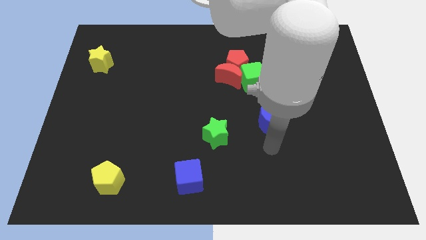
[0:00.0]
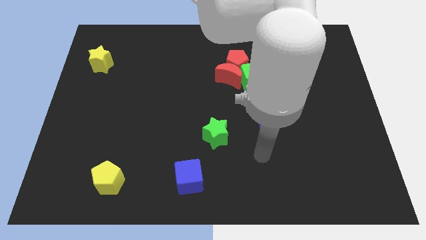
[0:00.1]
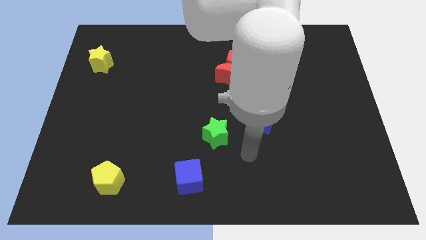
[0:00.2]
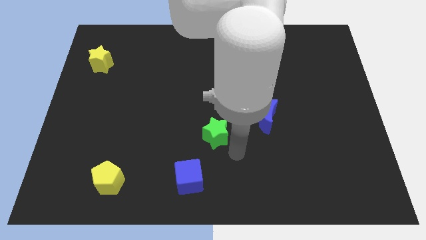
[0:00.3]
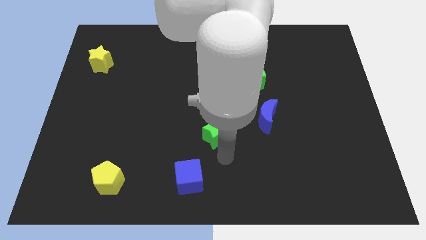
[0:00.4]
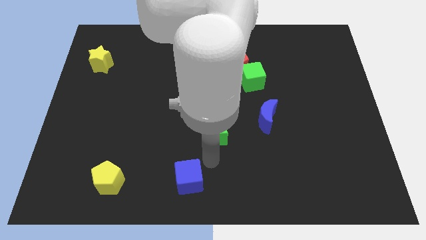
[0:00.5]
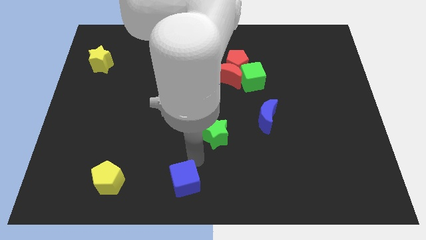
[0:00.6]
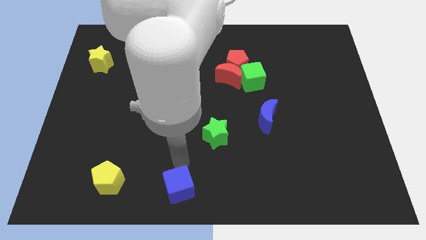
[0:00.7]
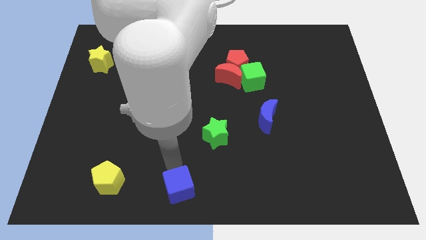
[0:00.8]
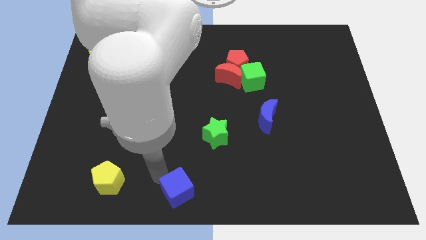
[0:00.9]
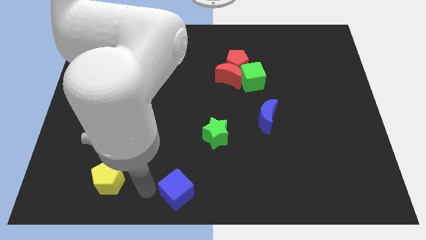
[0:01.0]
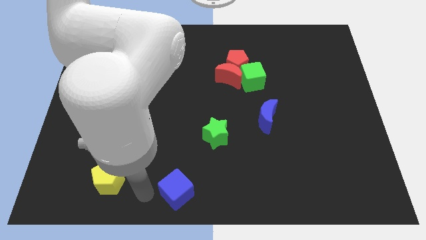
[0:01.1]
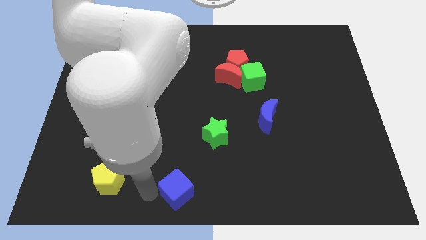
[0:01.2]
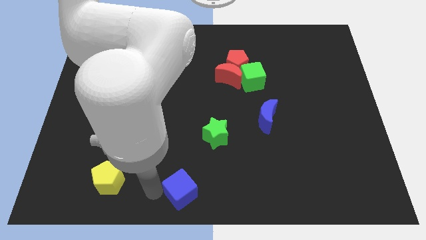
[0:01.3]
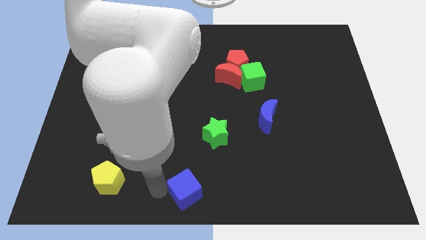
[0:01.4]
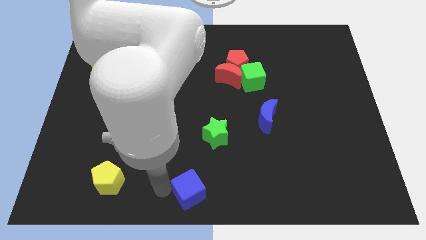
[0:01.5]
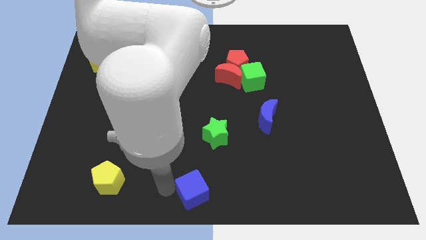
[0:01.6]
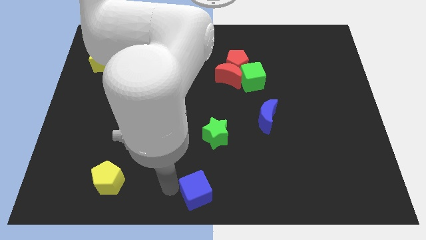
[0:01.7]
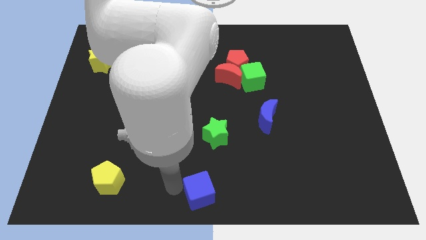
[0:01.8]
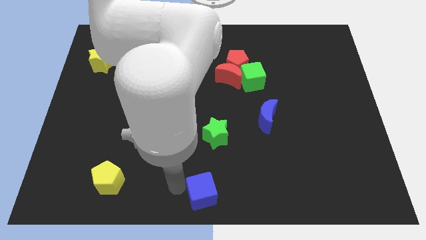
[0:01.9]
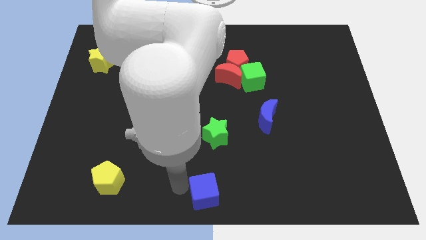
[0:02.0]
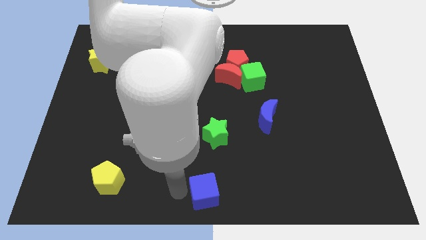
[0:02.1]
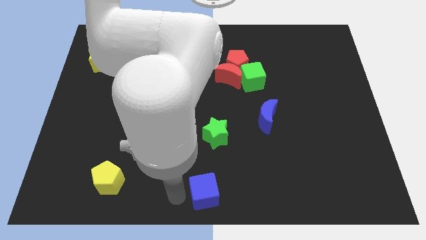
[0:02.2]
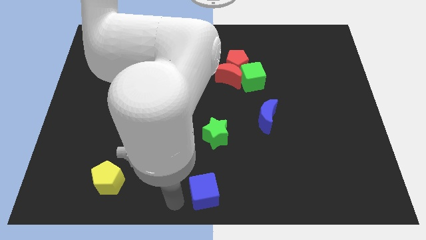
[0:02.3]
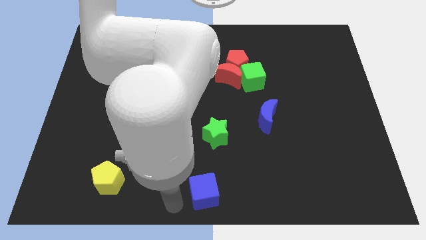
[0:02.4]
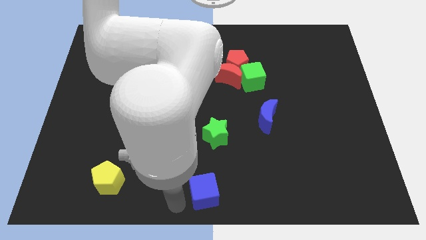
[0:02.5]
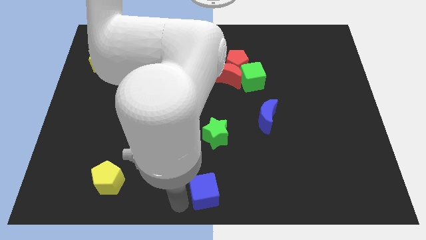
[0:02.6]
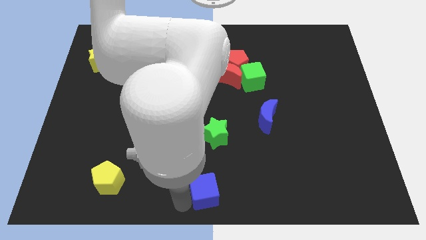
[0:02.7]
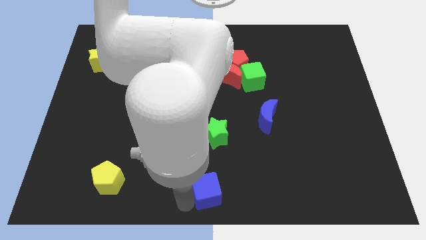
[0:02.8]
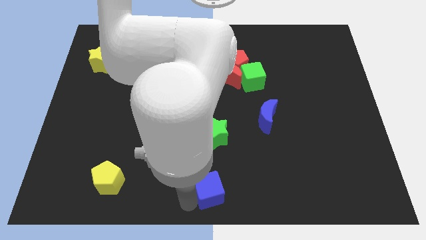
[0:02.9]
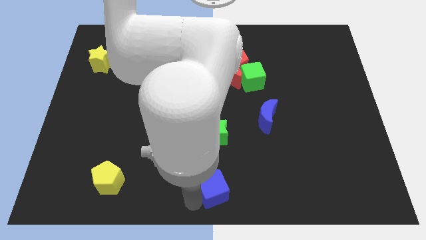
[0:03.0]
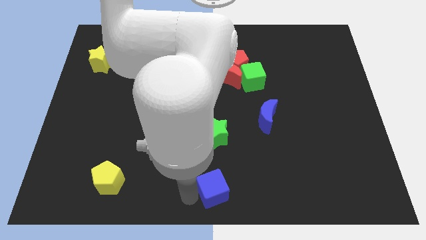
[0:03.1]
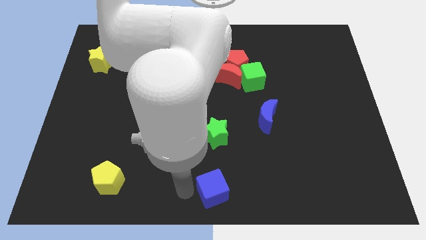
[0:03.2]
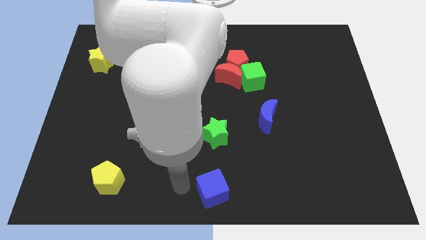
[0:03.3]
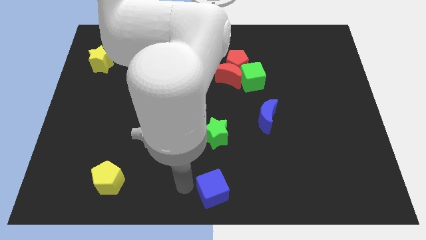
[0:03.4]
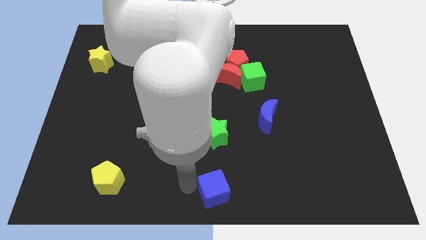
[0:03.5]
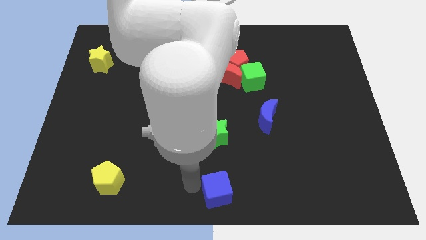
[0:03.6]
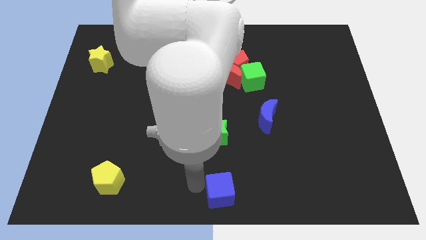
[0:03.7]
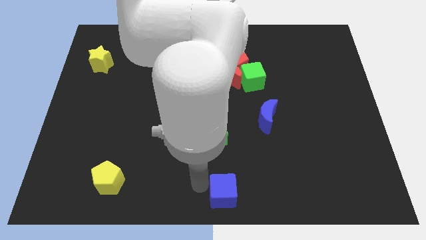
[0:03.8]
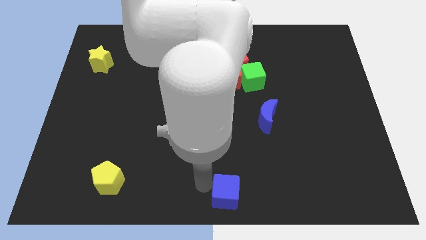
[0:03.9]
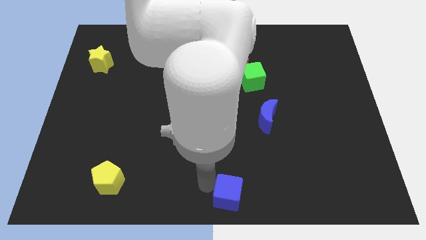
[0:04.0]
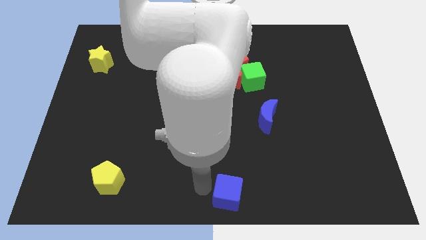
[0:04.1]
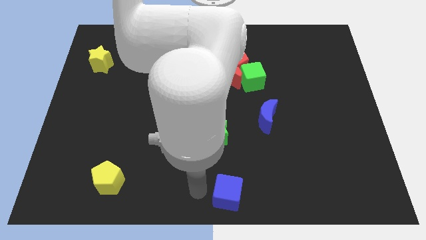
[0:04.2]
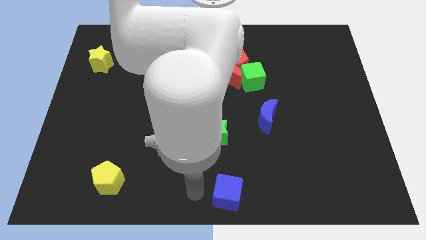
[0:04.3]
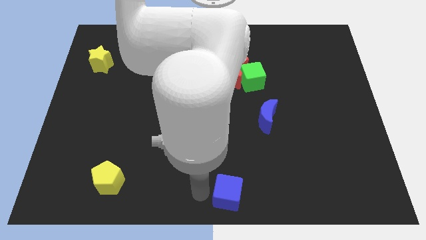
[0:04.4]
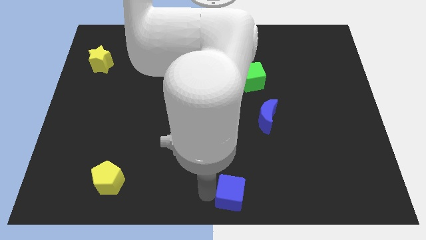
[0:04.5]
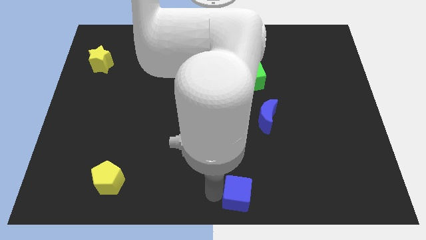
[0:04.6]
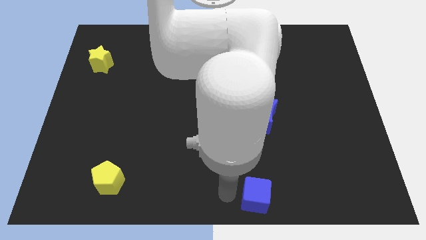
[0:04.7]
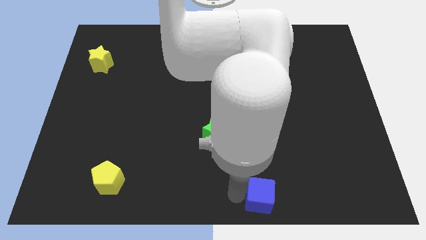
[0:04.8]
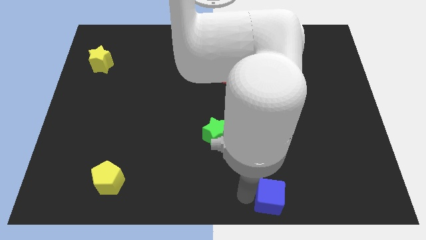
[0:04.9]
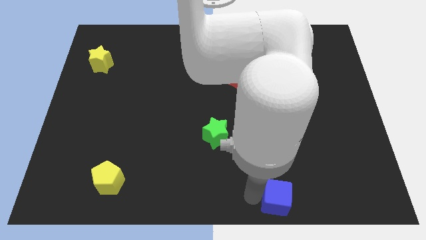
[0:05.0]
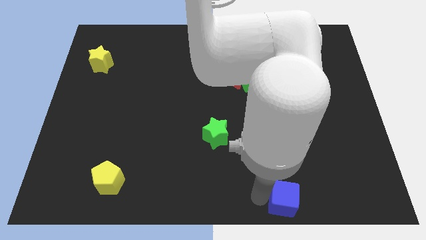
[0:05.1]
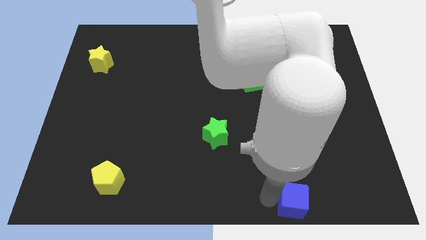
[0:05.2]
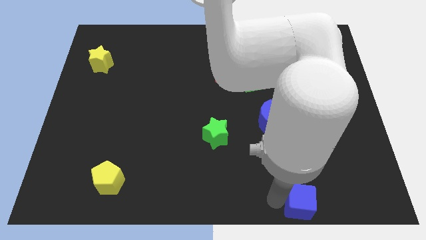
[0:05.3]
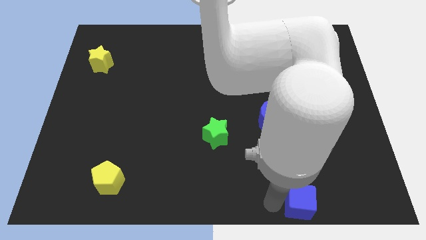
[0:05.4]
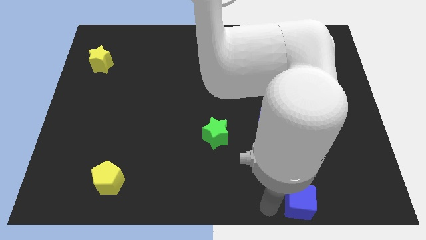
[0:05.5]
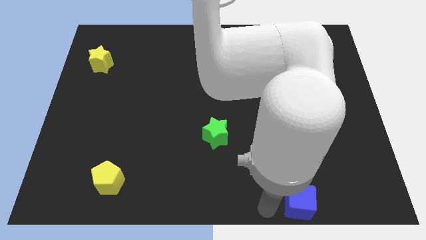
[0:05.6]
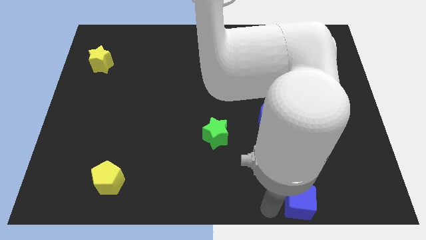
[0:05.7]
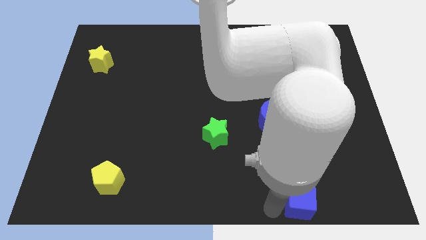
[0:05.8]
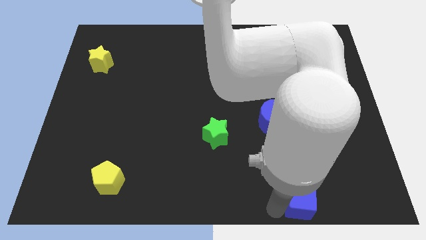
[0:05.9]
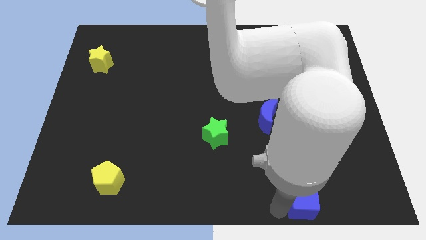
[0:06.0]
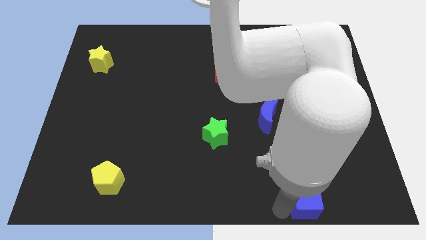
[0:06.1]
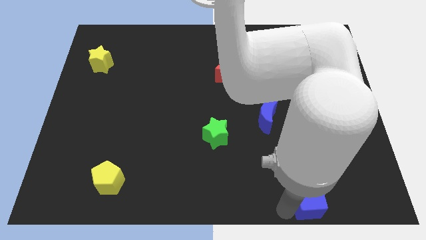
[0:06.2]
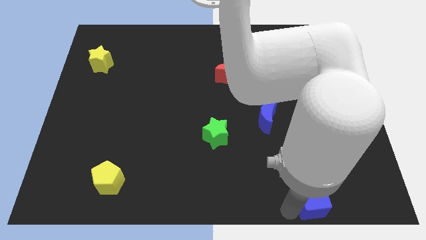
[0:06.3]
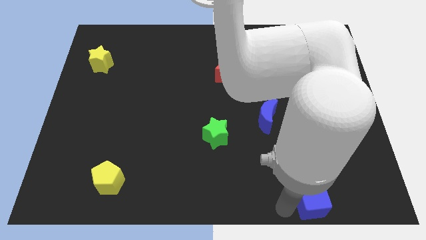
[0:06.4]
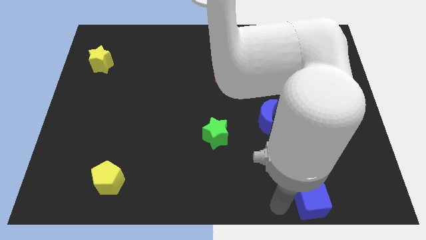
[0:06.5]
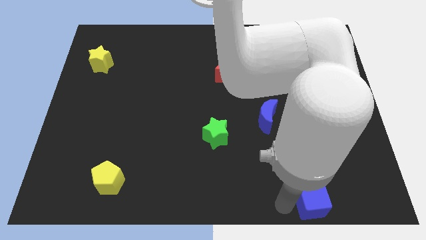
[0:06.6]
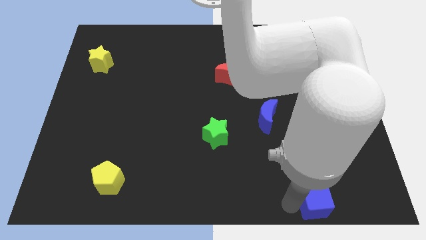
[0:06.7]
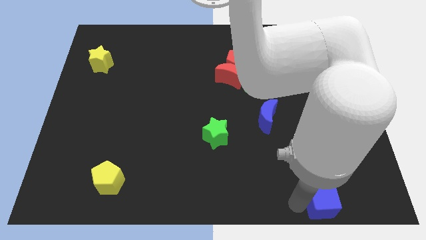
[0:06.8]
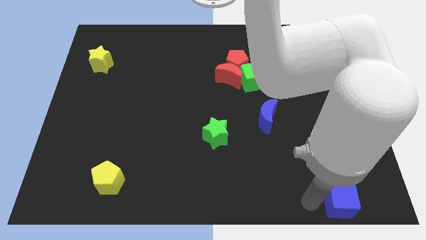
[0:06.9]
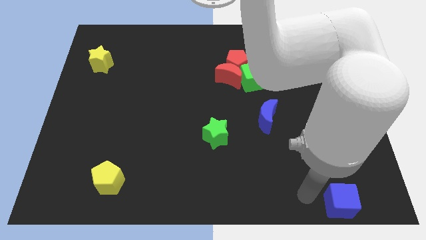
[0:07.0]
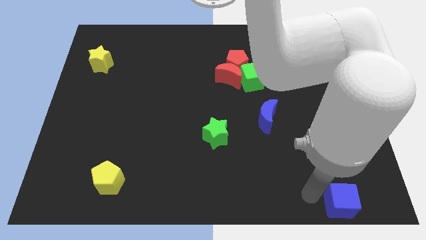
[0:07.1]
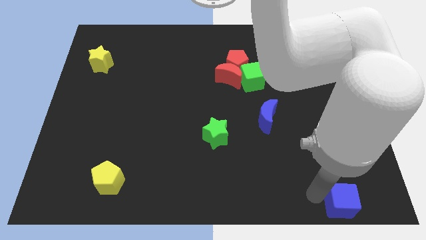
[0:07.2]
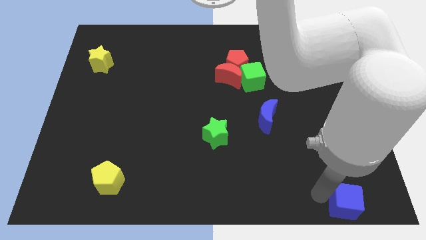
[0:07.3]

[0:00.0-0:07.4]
push the blue cube to the bottom right of the board
